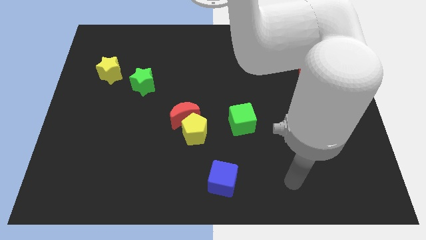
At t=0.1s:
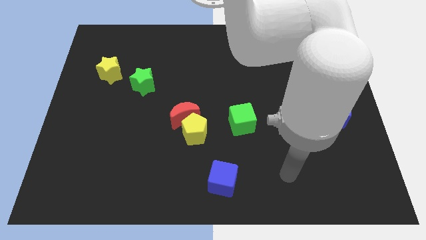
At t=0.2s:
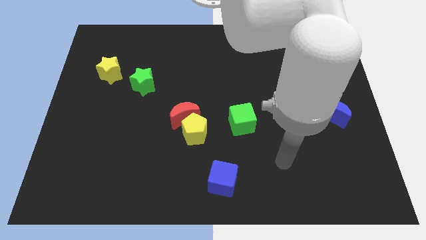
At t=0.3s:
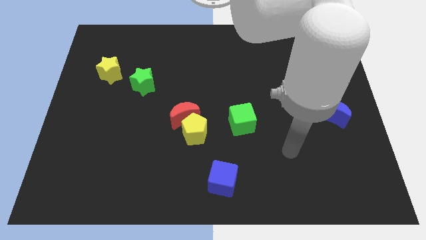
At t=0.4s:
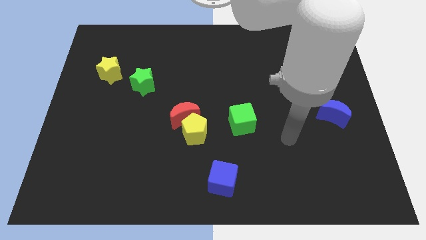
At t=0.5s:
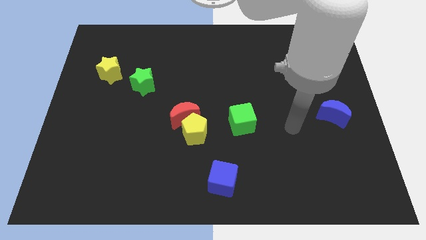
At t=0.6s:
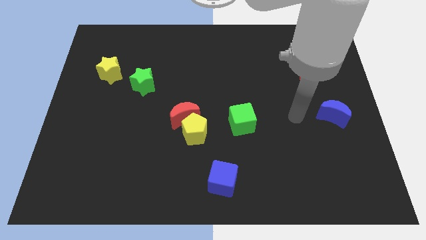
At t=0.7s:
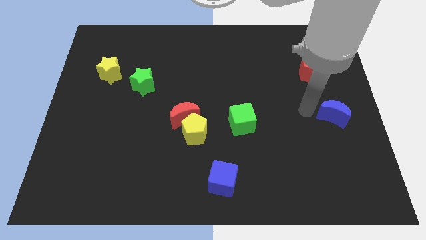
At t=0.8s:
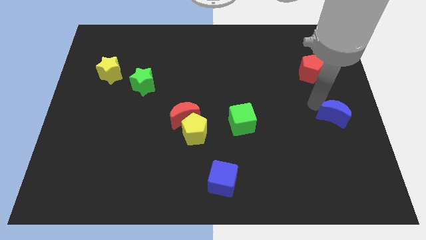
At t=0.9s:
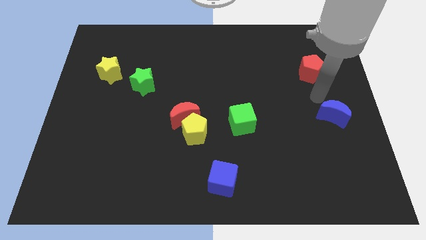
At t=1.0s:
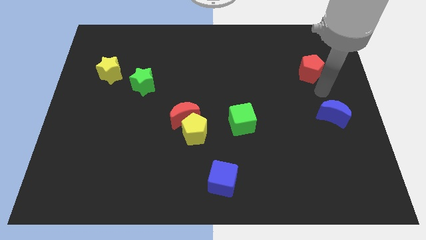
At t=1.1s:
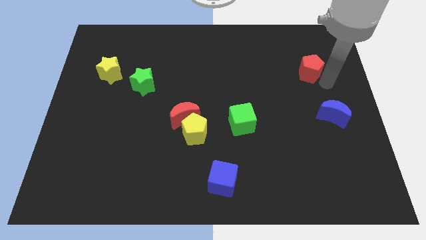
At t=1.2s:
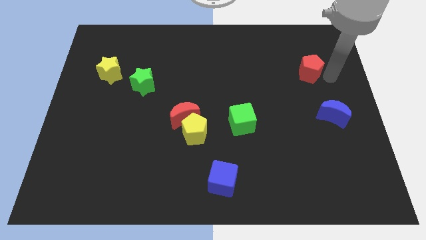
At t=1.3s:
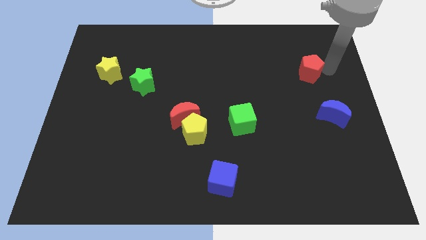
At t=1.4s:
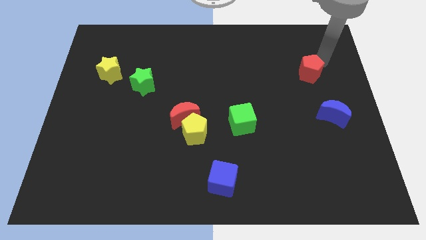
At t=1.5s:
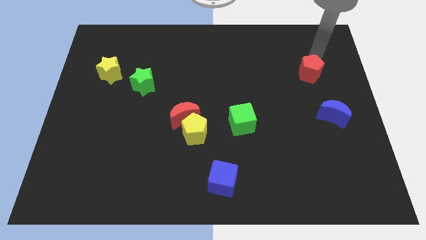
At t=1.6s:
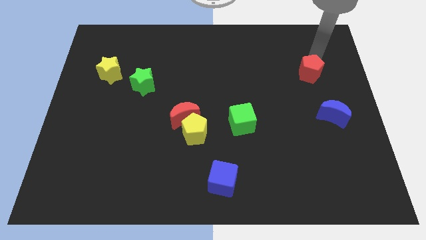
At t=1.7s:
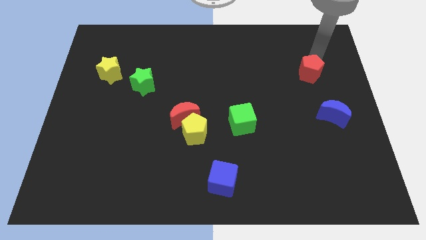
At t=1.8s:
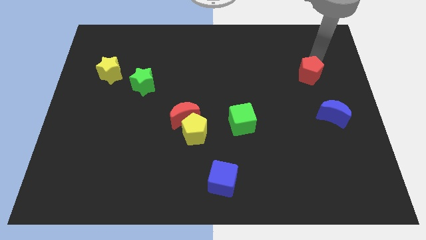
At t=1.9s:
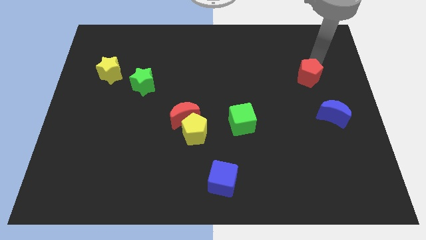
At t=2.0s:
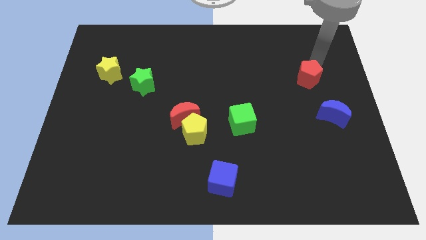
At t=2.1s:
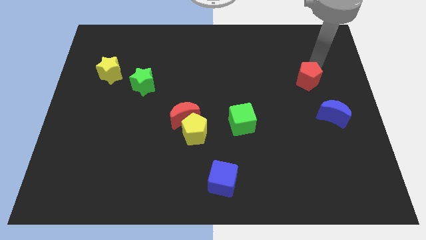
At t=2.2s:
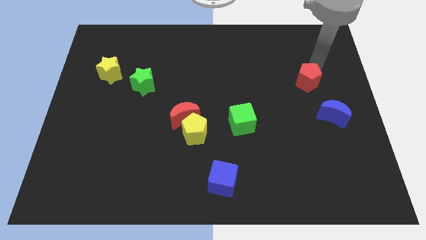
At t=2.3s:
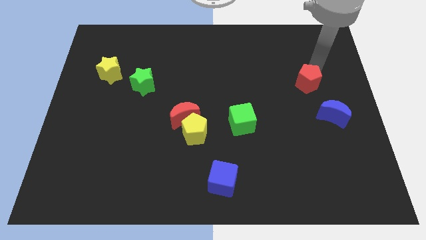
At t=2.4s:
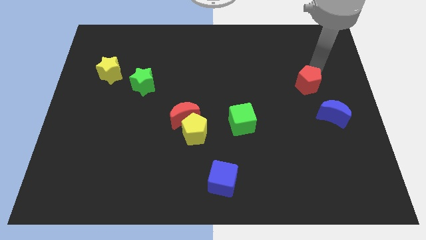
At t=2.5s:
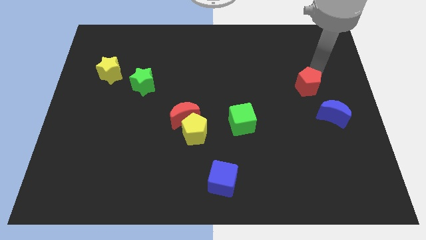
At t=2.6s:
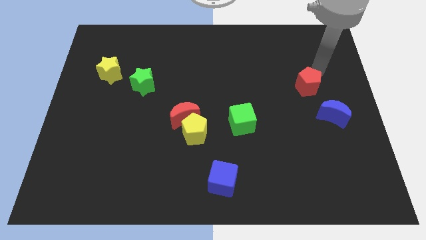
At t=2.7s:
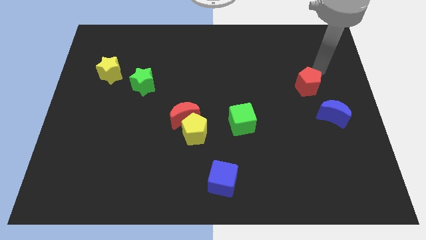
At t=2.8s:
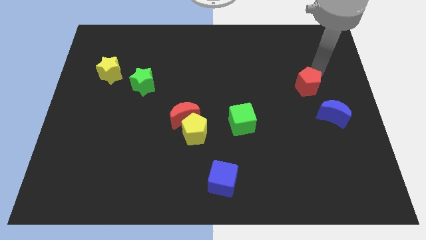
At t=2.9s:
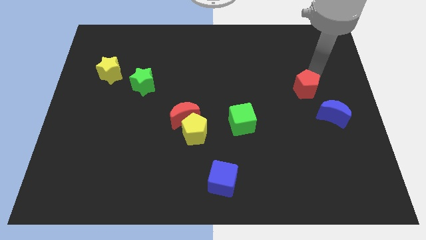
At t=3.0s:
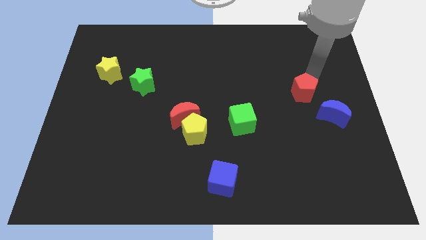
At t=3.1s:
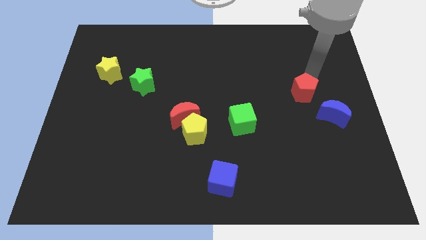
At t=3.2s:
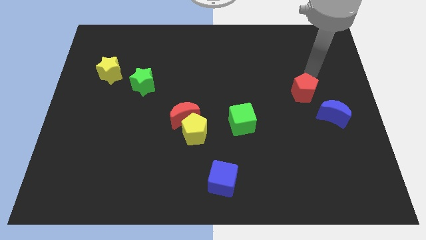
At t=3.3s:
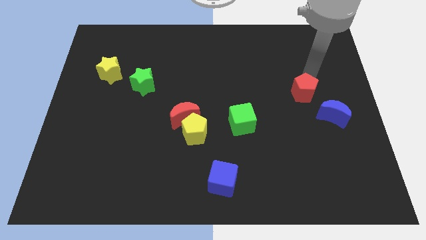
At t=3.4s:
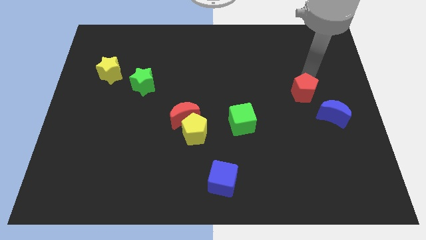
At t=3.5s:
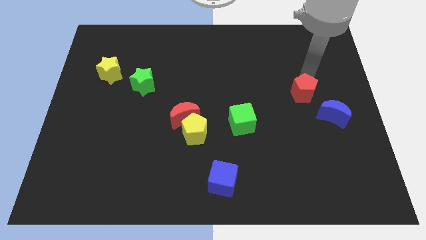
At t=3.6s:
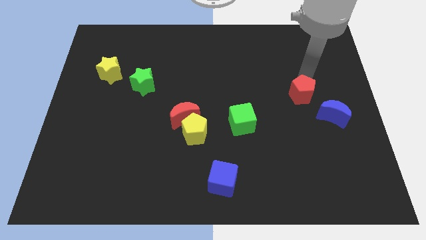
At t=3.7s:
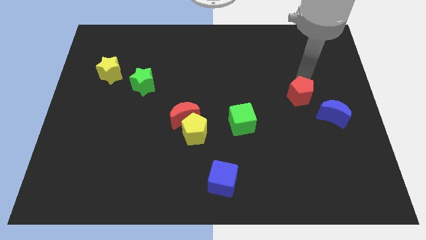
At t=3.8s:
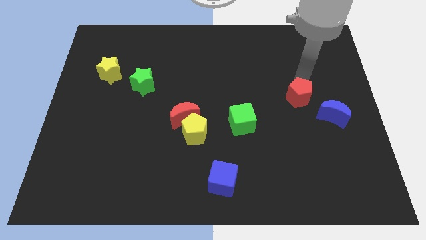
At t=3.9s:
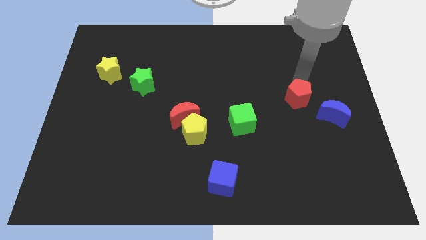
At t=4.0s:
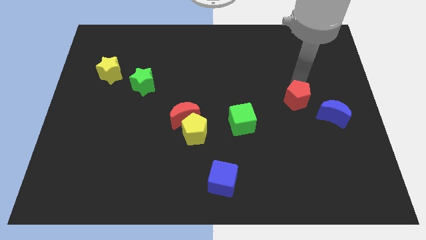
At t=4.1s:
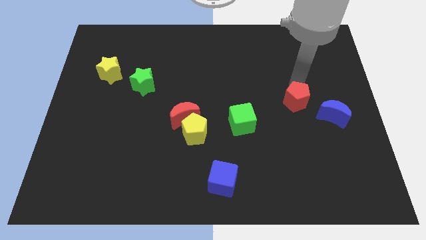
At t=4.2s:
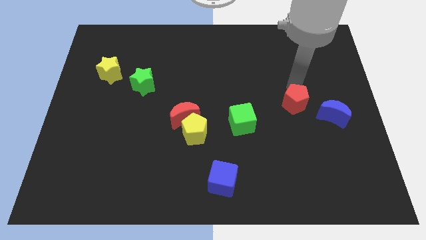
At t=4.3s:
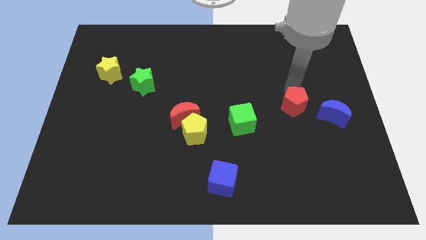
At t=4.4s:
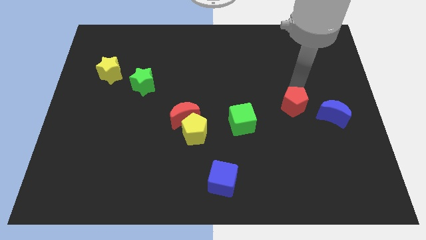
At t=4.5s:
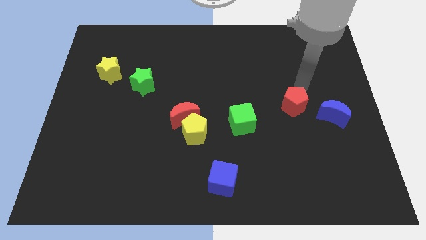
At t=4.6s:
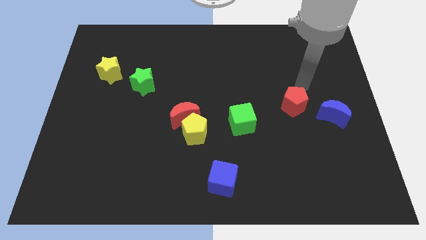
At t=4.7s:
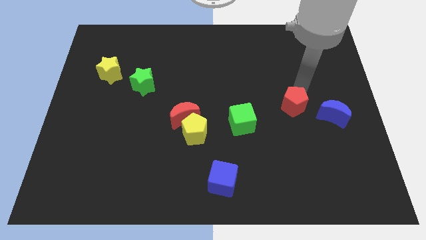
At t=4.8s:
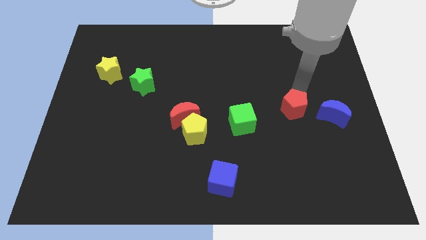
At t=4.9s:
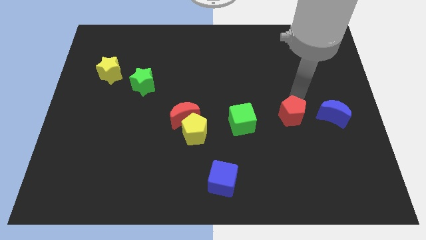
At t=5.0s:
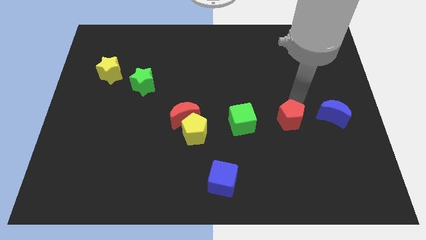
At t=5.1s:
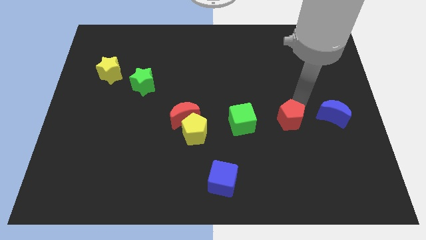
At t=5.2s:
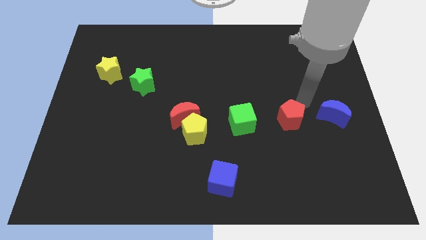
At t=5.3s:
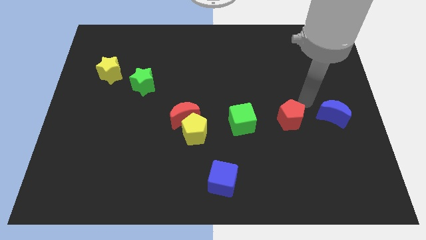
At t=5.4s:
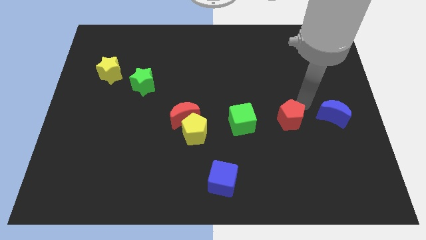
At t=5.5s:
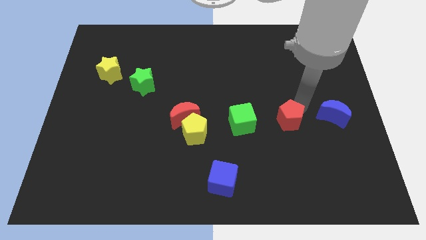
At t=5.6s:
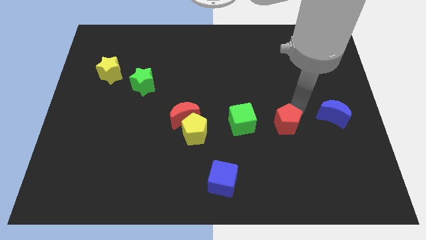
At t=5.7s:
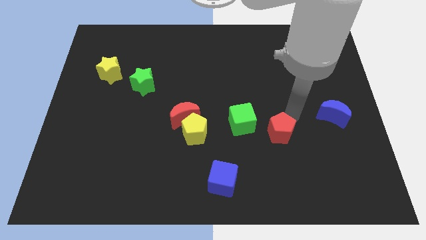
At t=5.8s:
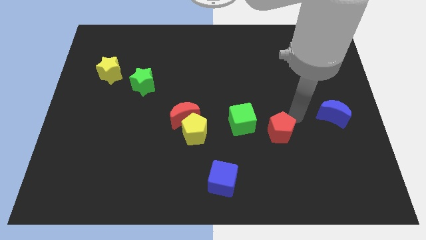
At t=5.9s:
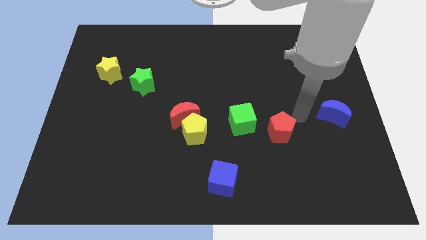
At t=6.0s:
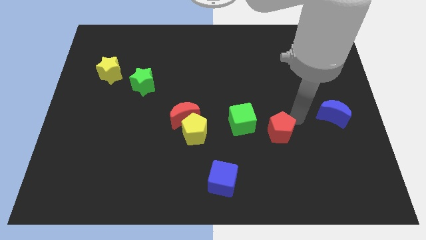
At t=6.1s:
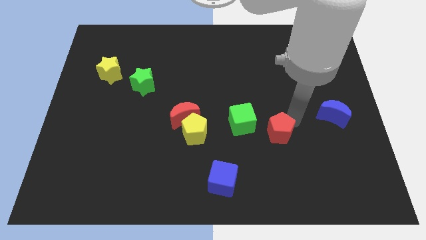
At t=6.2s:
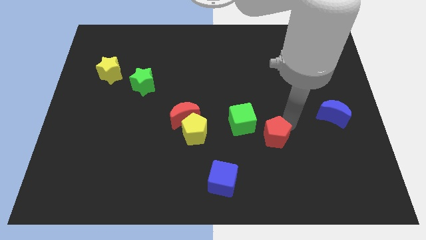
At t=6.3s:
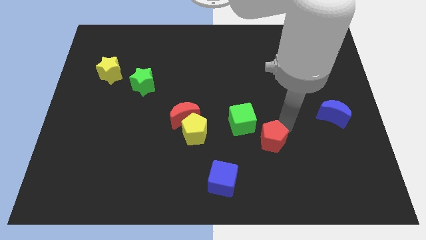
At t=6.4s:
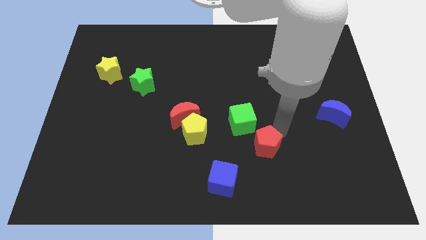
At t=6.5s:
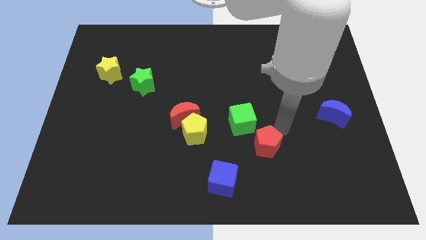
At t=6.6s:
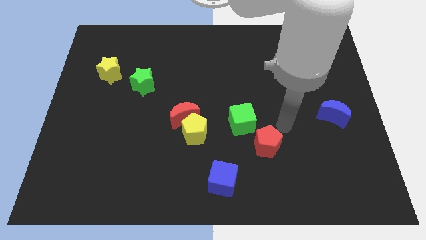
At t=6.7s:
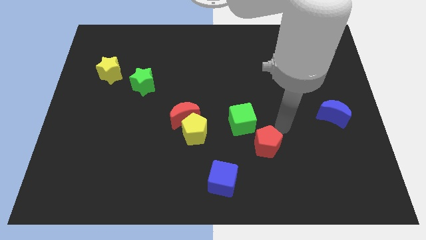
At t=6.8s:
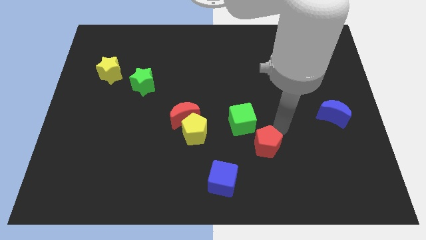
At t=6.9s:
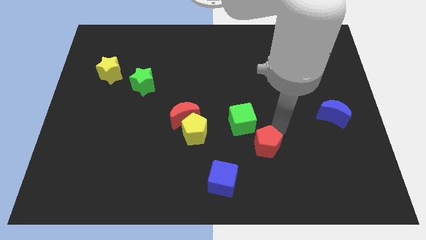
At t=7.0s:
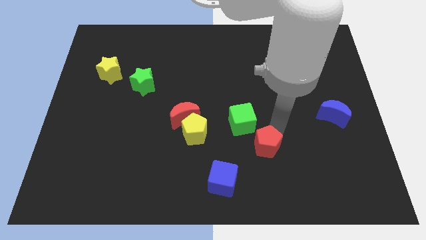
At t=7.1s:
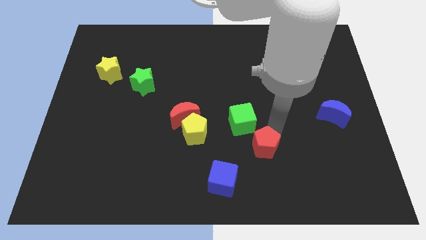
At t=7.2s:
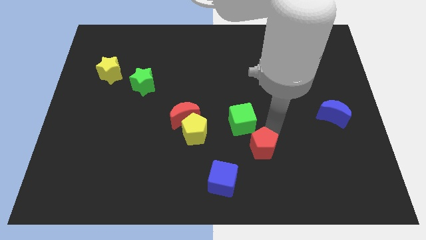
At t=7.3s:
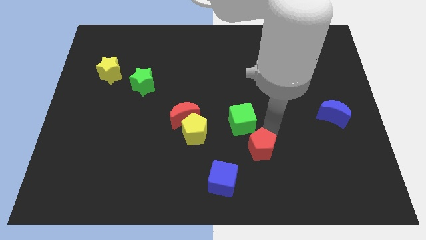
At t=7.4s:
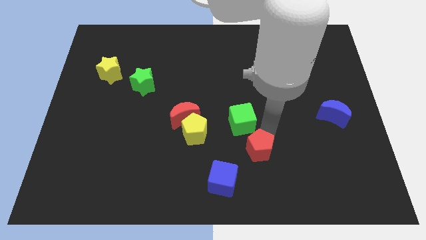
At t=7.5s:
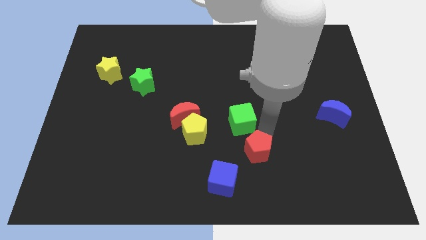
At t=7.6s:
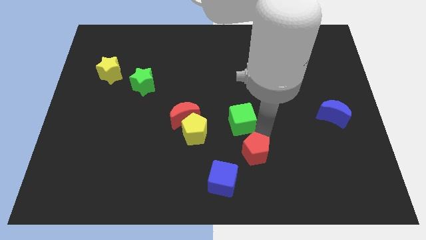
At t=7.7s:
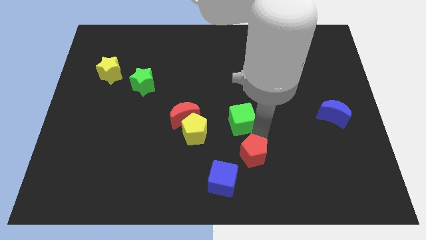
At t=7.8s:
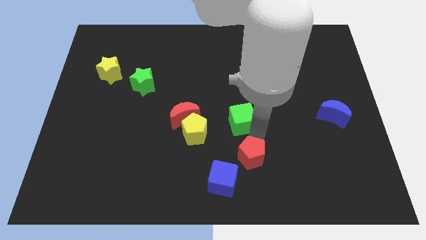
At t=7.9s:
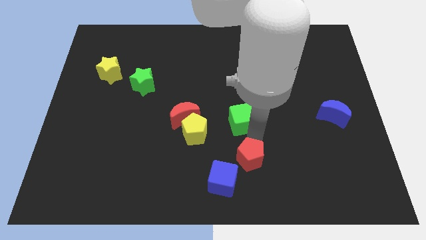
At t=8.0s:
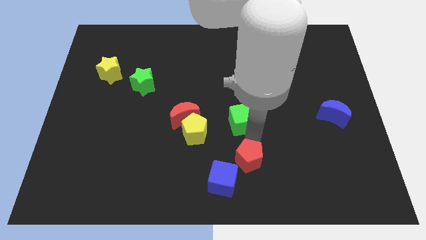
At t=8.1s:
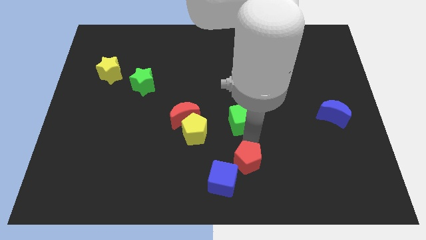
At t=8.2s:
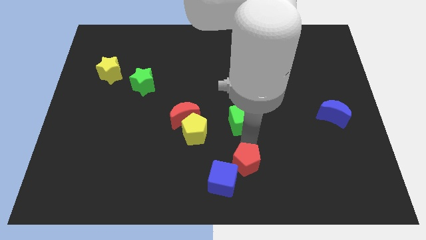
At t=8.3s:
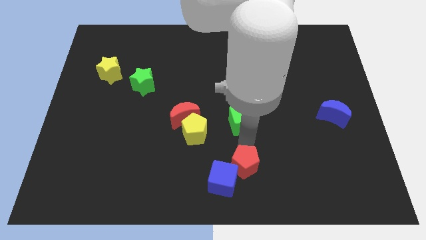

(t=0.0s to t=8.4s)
move the red pentagon close to the blue cube
